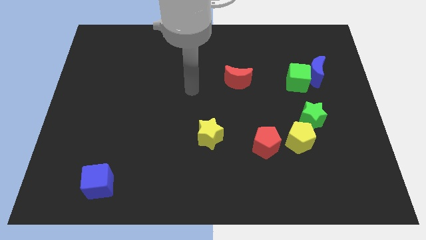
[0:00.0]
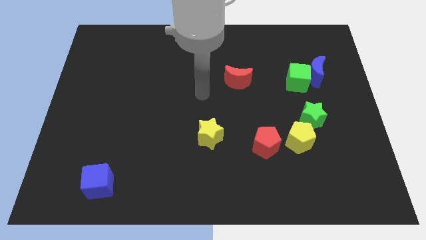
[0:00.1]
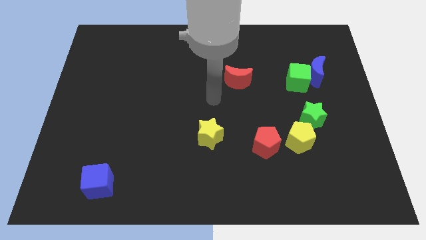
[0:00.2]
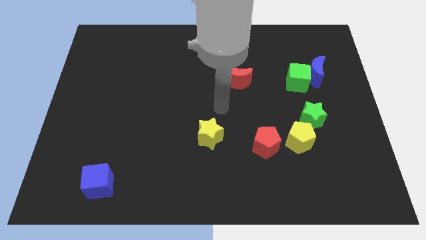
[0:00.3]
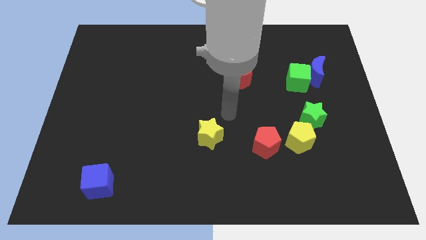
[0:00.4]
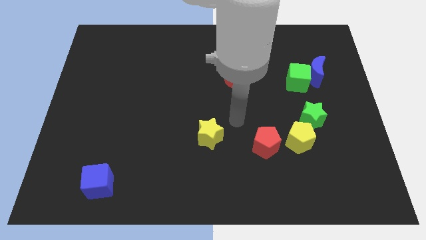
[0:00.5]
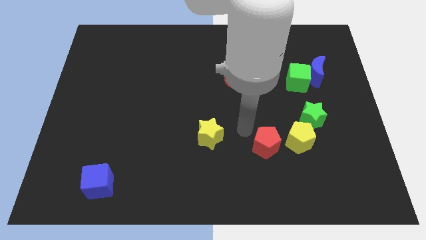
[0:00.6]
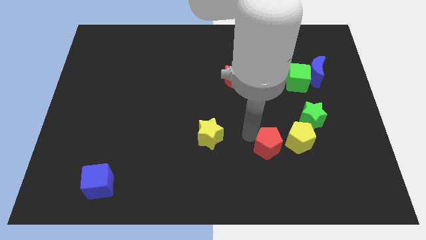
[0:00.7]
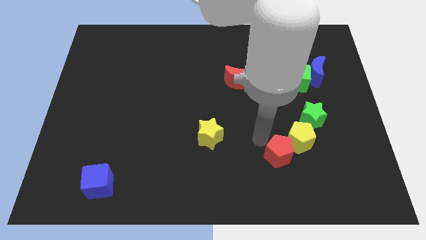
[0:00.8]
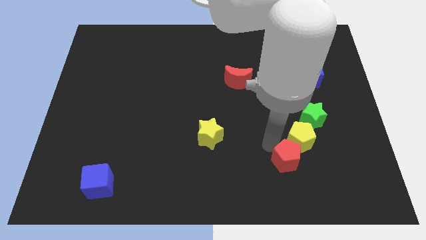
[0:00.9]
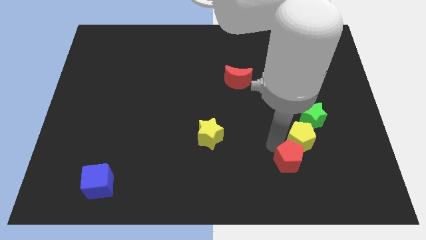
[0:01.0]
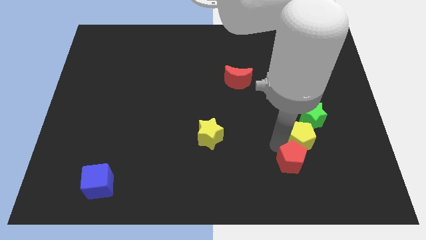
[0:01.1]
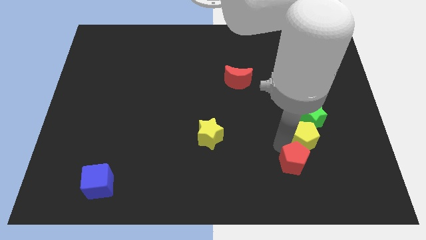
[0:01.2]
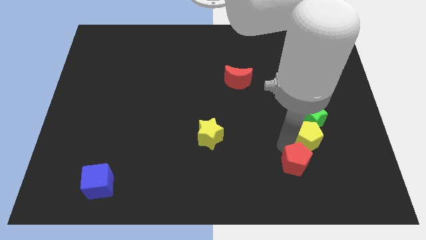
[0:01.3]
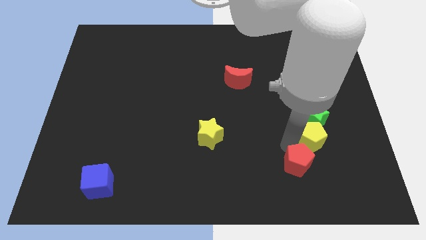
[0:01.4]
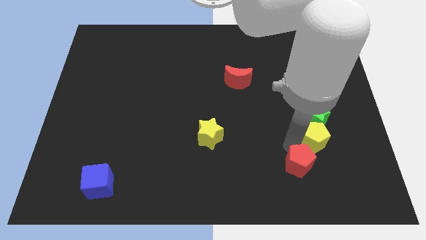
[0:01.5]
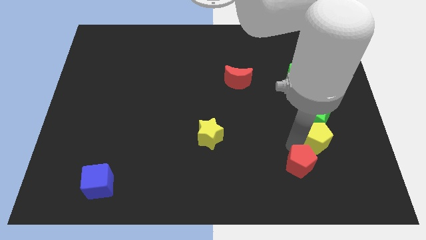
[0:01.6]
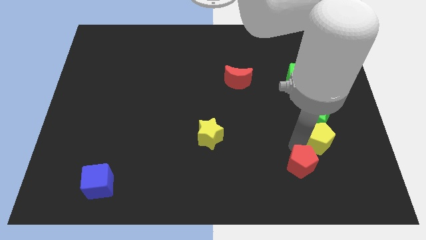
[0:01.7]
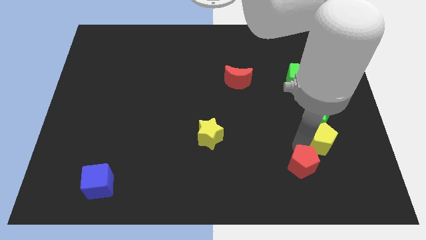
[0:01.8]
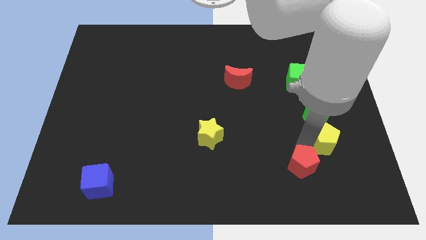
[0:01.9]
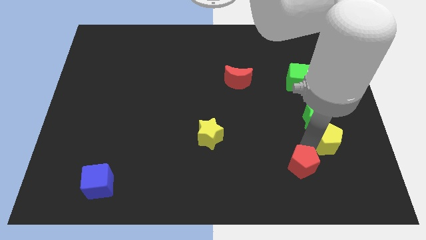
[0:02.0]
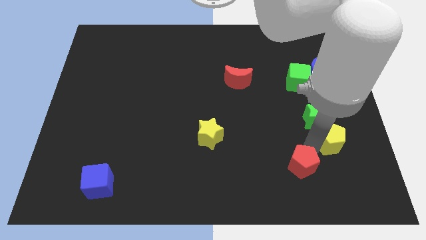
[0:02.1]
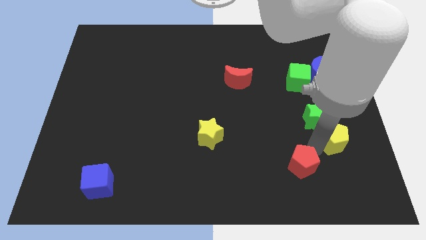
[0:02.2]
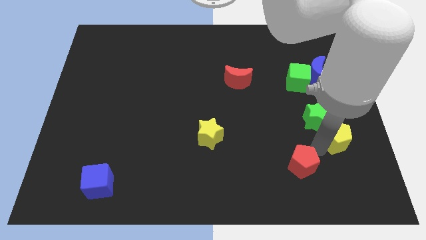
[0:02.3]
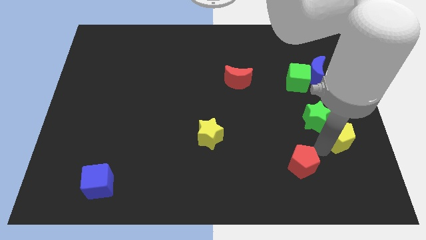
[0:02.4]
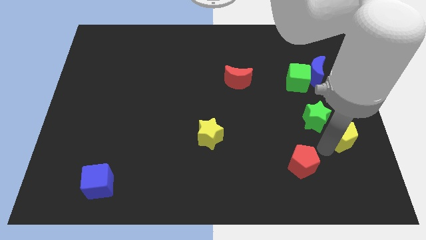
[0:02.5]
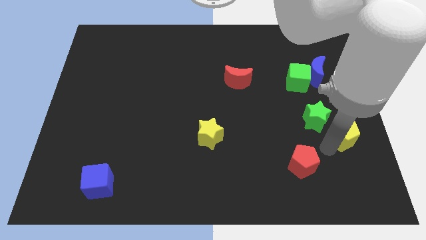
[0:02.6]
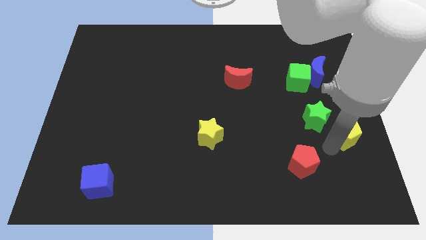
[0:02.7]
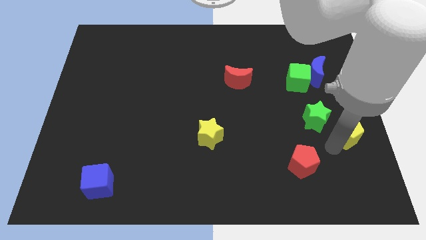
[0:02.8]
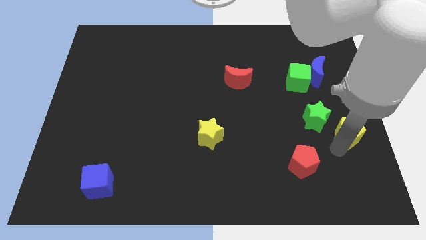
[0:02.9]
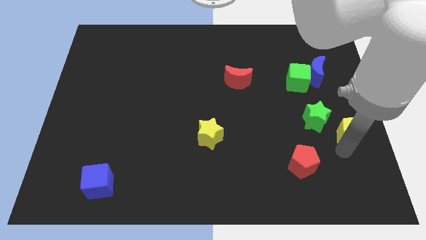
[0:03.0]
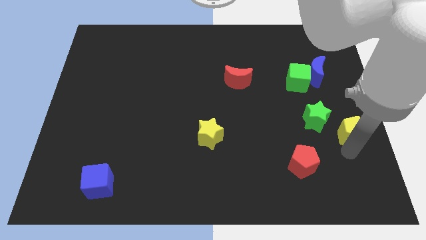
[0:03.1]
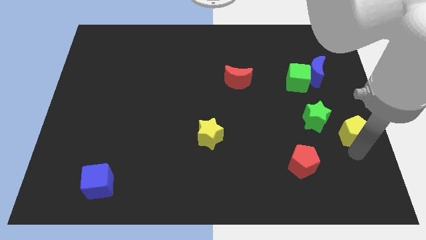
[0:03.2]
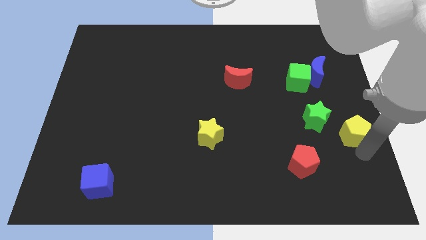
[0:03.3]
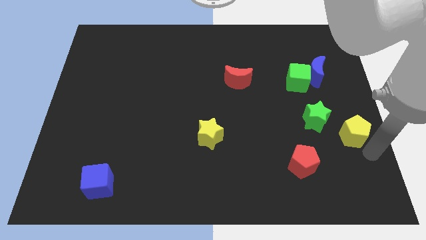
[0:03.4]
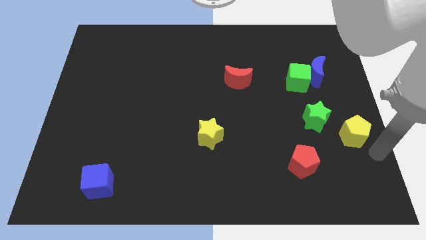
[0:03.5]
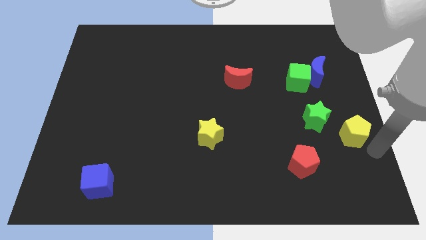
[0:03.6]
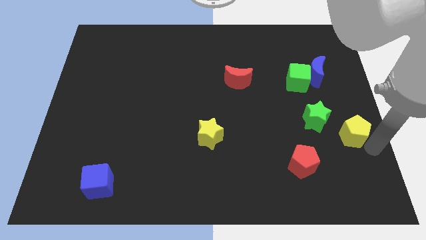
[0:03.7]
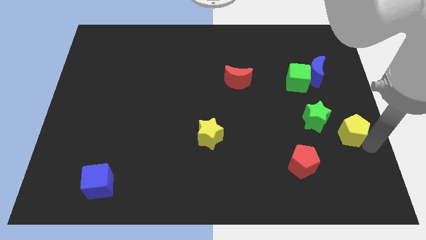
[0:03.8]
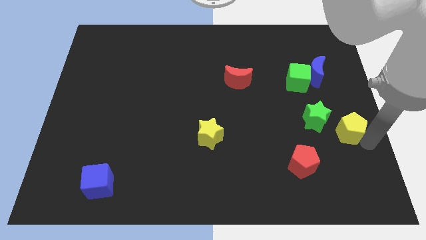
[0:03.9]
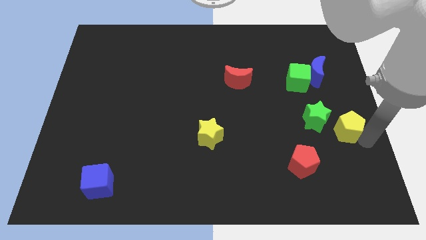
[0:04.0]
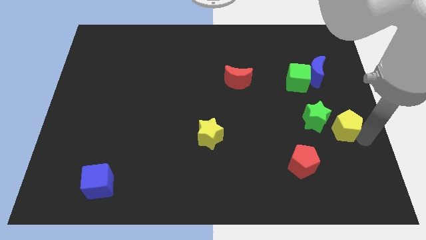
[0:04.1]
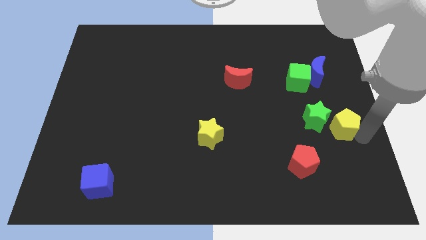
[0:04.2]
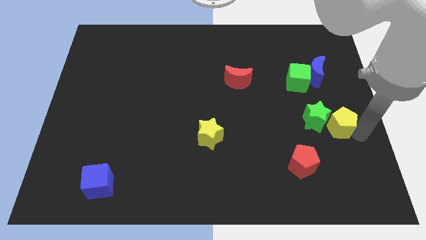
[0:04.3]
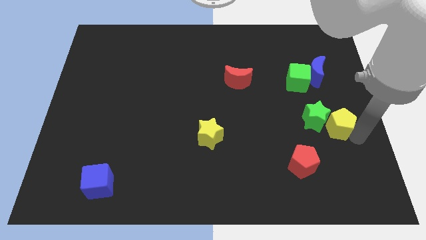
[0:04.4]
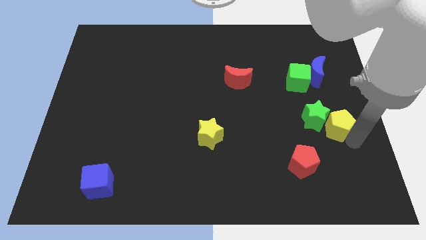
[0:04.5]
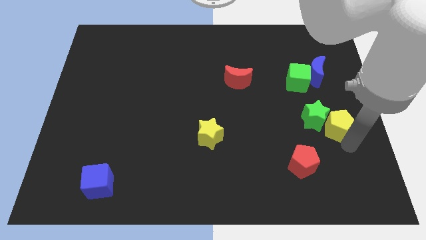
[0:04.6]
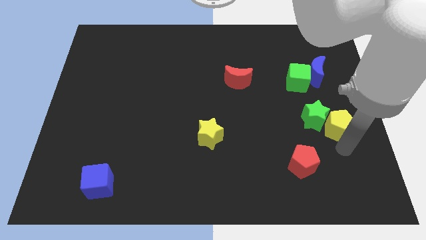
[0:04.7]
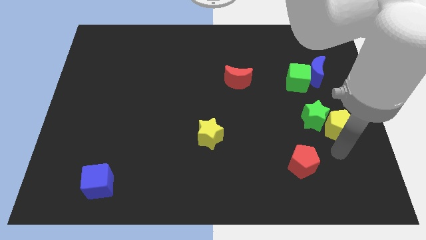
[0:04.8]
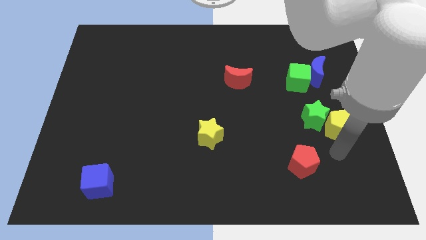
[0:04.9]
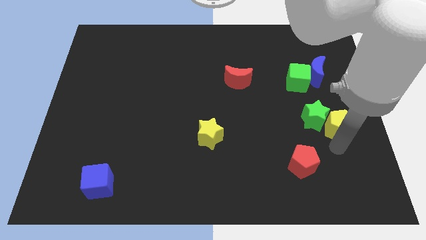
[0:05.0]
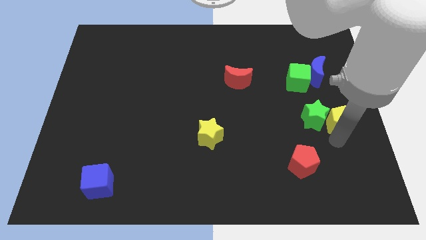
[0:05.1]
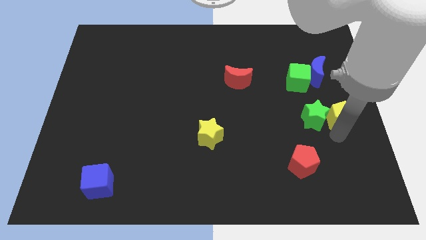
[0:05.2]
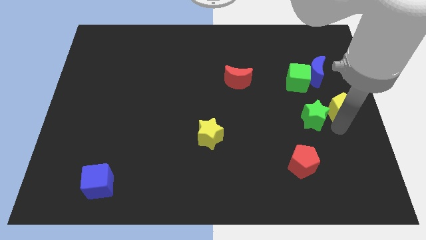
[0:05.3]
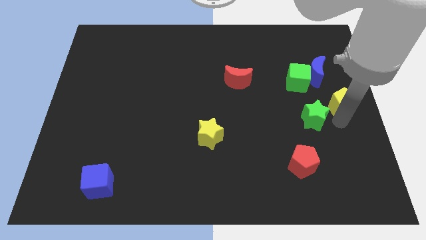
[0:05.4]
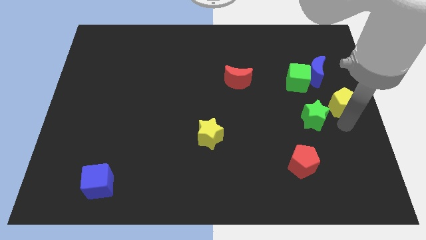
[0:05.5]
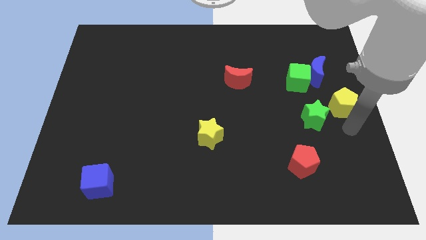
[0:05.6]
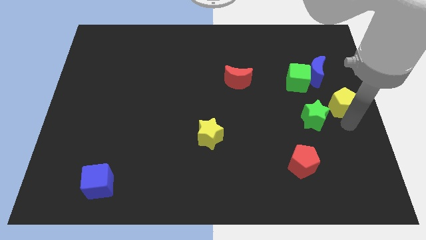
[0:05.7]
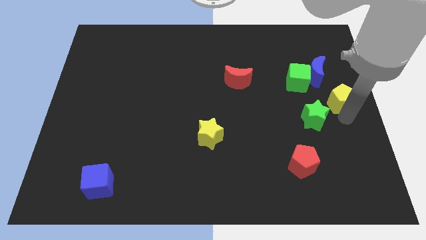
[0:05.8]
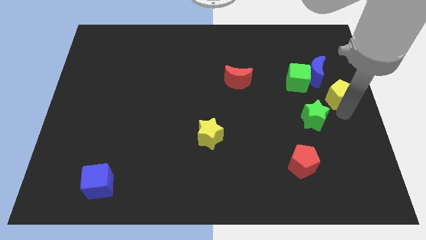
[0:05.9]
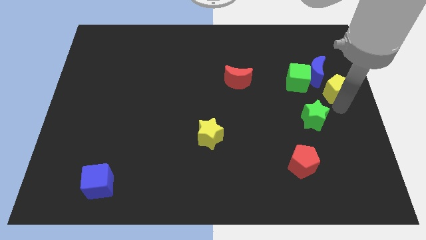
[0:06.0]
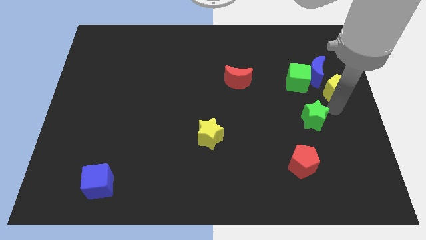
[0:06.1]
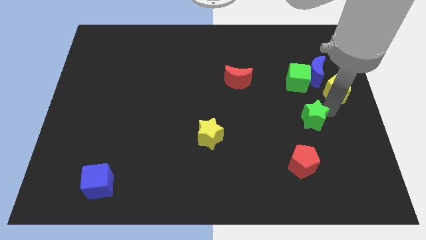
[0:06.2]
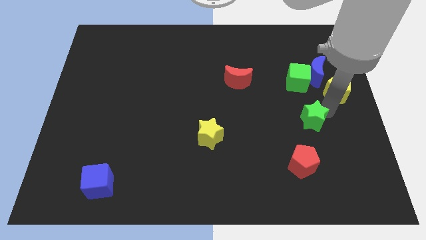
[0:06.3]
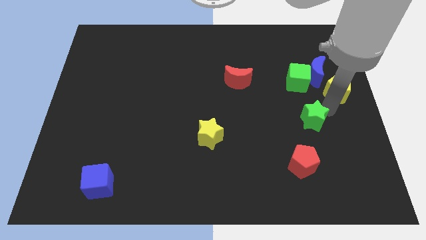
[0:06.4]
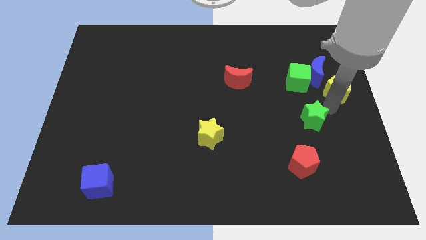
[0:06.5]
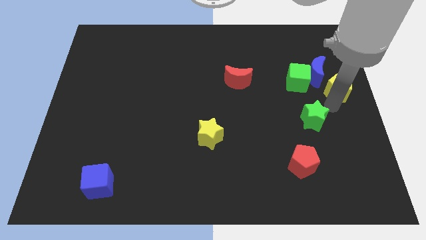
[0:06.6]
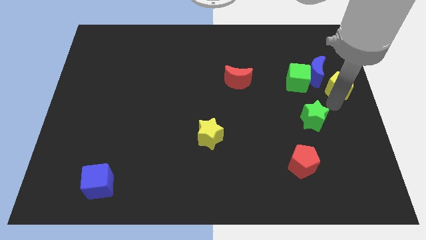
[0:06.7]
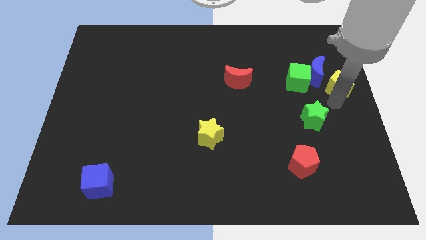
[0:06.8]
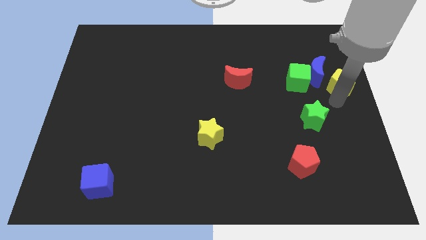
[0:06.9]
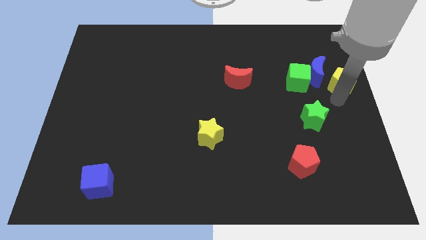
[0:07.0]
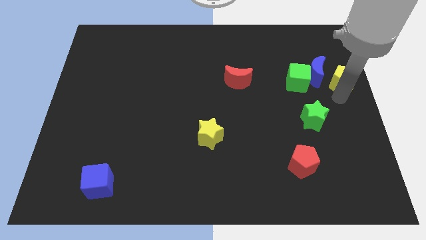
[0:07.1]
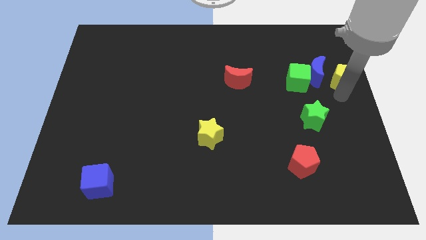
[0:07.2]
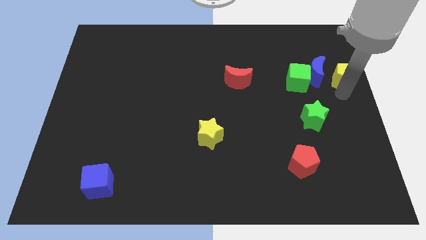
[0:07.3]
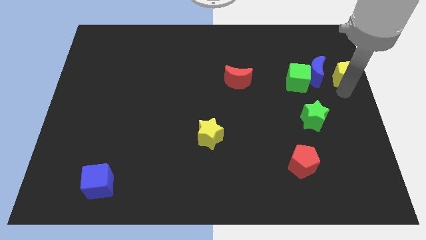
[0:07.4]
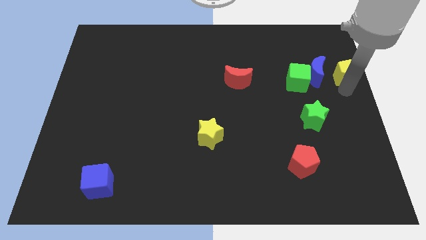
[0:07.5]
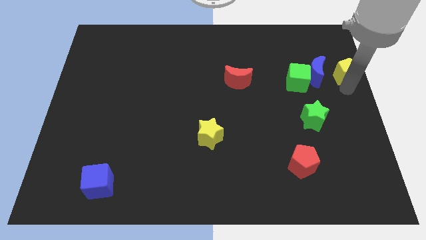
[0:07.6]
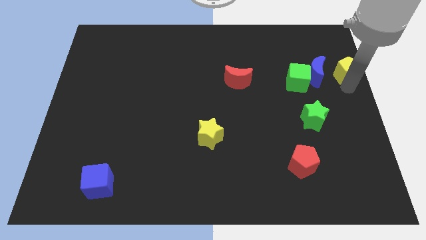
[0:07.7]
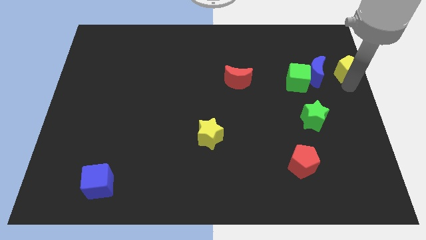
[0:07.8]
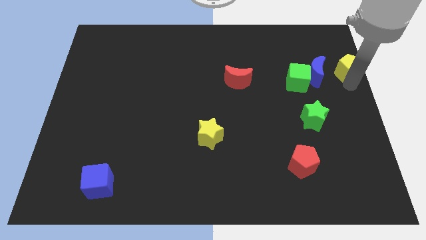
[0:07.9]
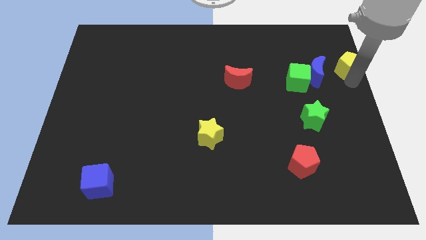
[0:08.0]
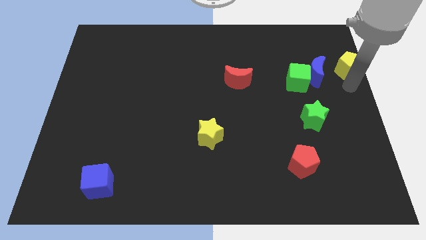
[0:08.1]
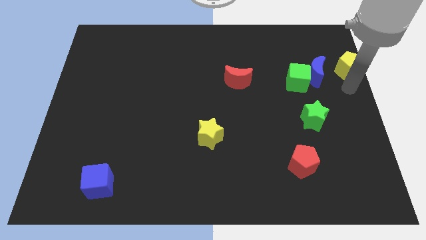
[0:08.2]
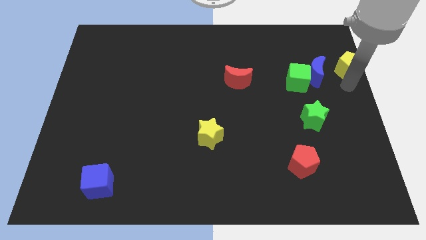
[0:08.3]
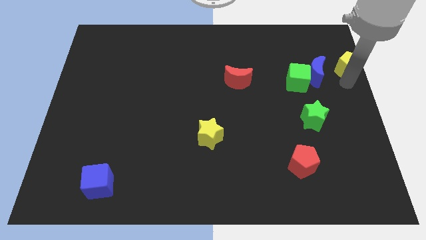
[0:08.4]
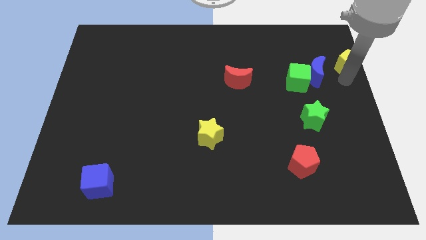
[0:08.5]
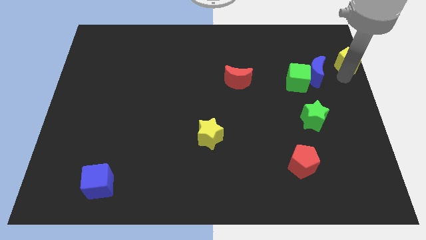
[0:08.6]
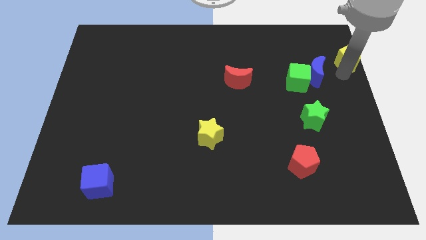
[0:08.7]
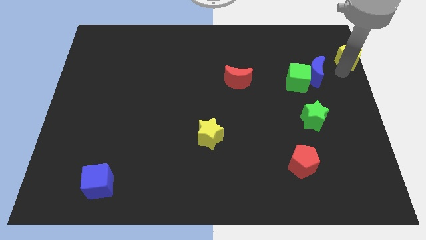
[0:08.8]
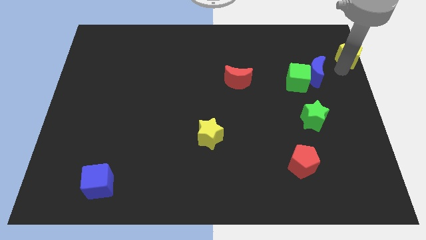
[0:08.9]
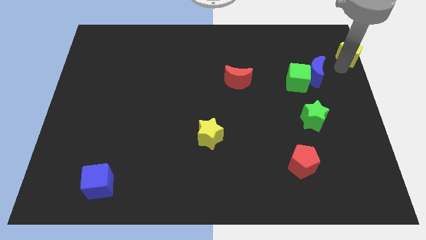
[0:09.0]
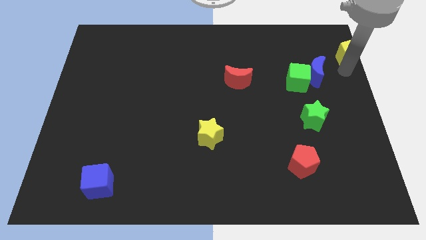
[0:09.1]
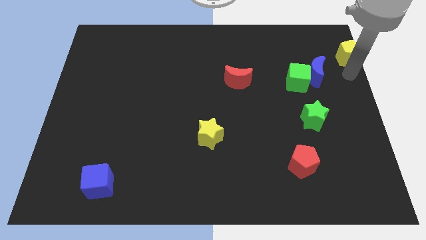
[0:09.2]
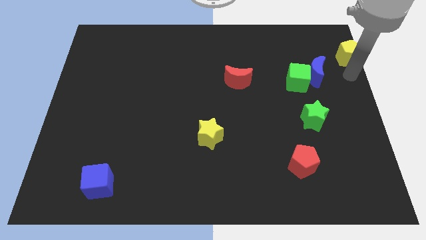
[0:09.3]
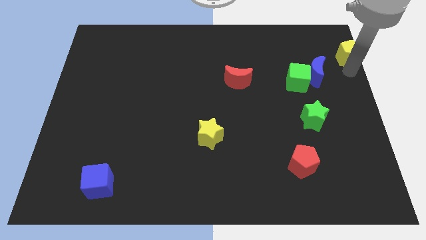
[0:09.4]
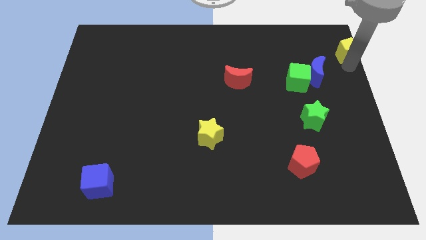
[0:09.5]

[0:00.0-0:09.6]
slide the yellow pentagon to the upper right corner
